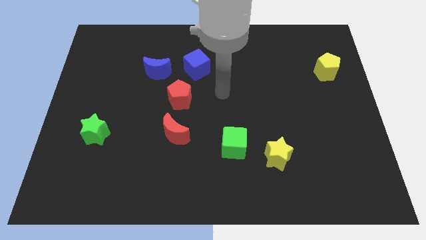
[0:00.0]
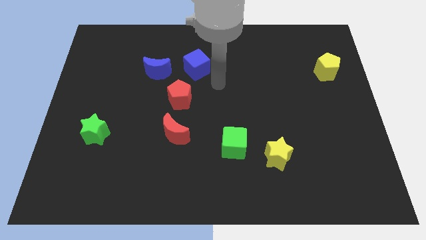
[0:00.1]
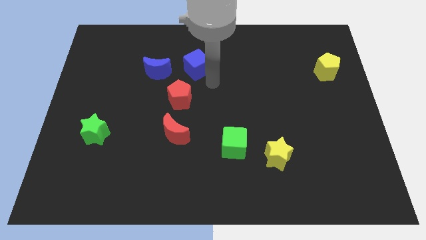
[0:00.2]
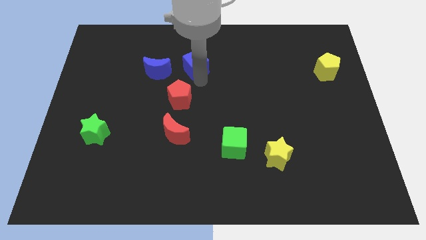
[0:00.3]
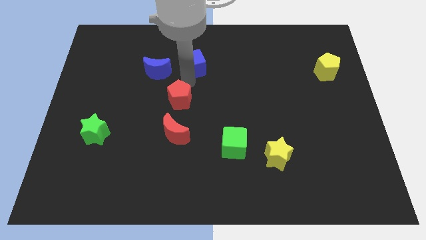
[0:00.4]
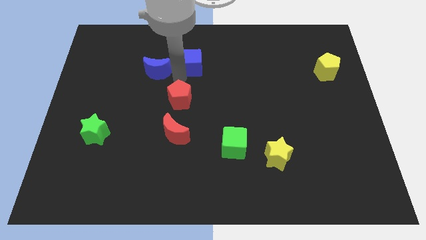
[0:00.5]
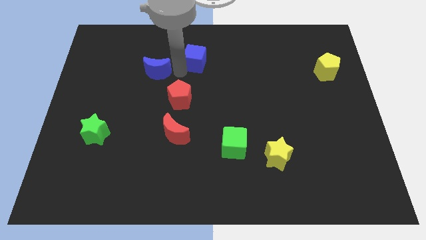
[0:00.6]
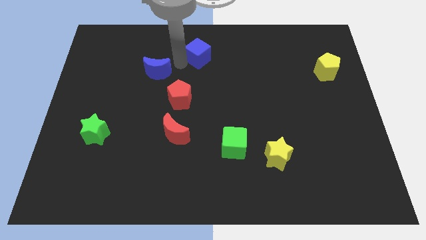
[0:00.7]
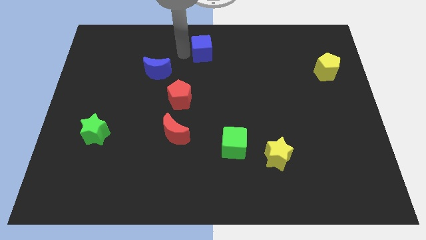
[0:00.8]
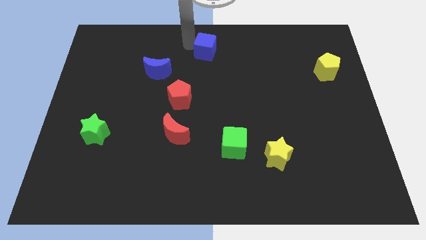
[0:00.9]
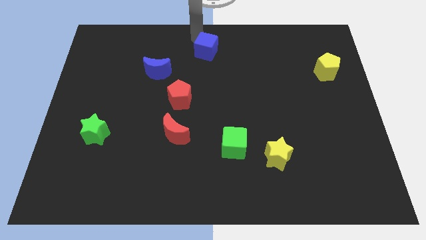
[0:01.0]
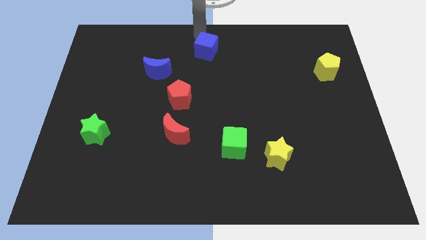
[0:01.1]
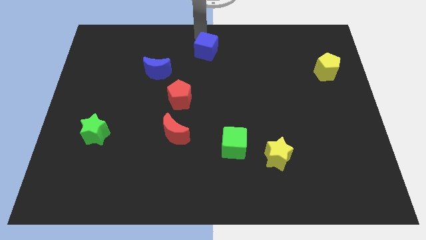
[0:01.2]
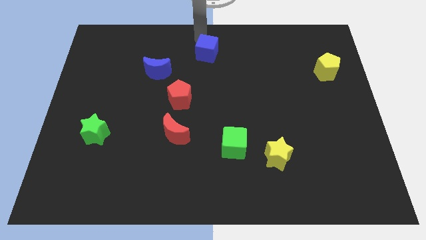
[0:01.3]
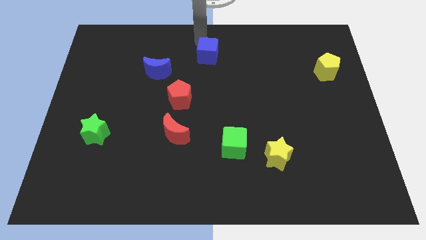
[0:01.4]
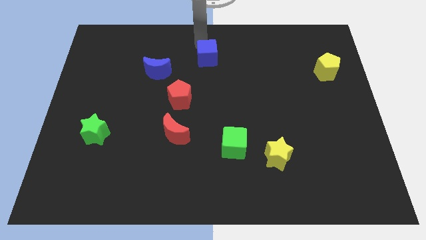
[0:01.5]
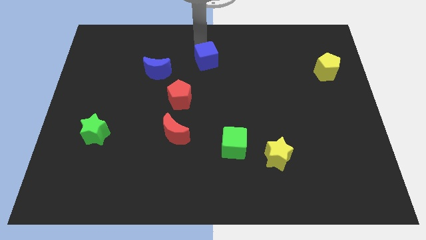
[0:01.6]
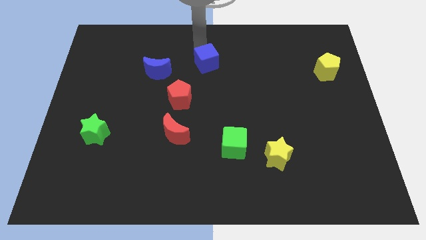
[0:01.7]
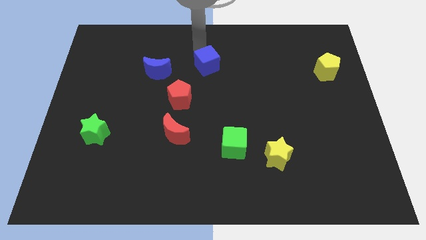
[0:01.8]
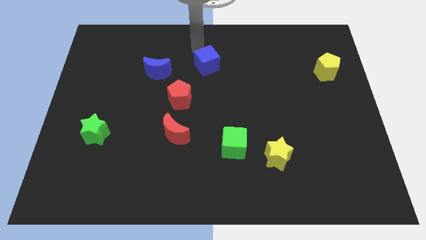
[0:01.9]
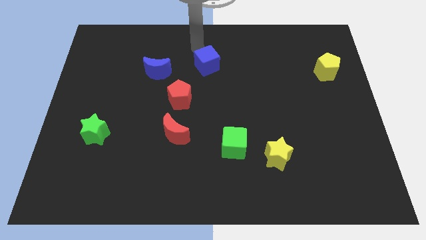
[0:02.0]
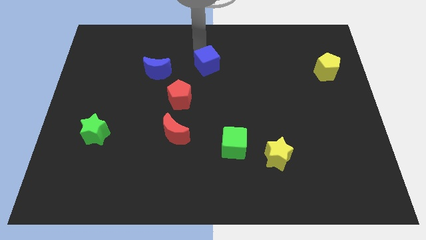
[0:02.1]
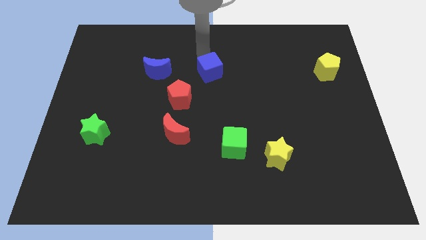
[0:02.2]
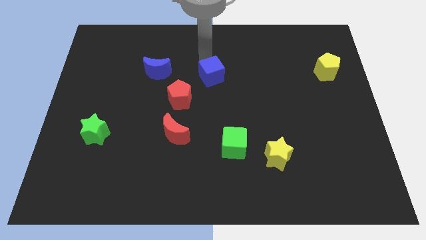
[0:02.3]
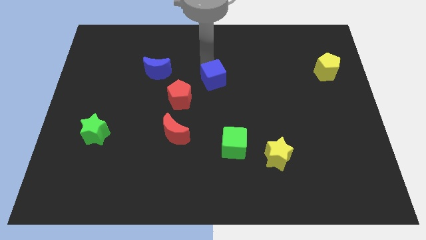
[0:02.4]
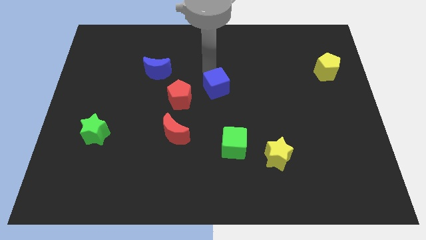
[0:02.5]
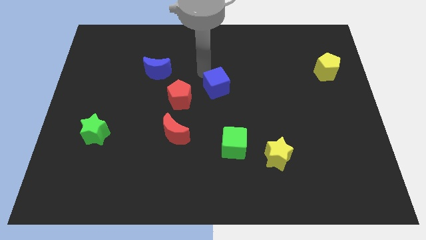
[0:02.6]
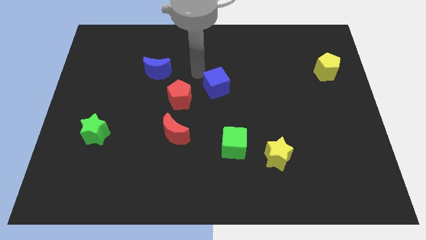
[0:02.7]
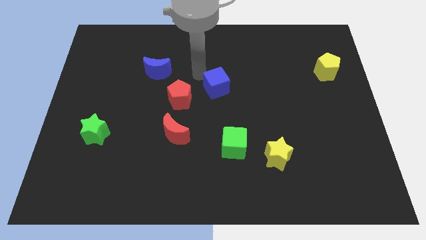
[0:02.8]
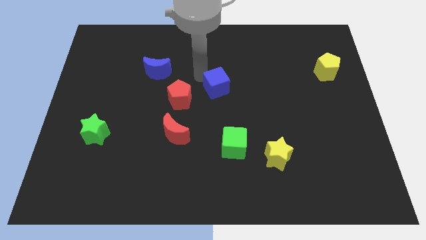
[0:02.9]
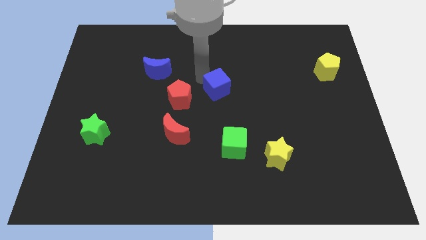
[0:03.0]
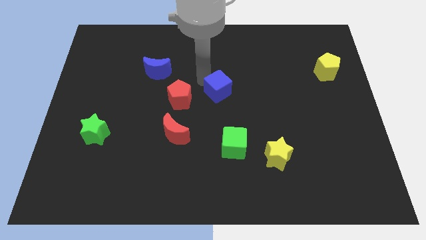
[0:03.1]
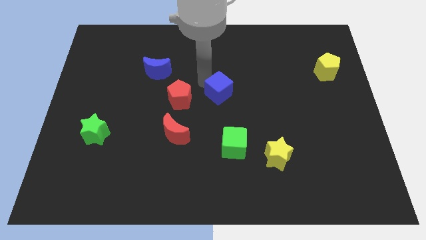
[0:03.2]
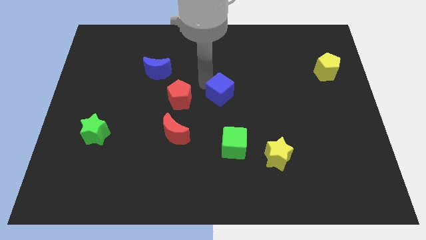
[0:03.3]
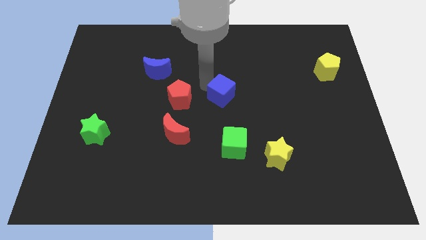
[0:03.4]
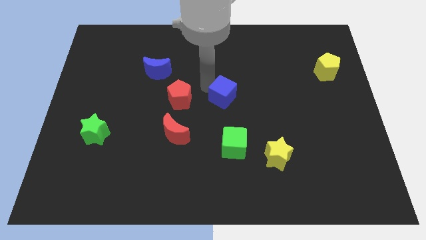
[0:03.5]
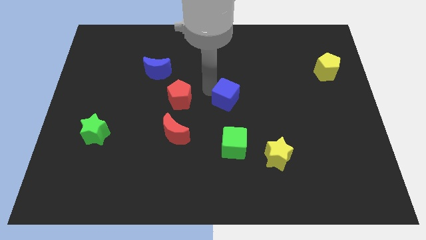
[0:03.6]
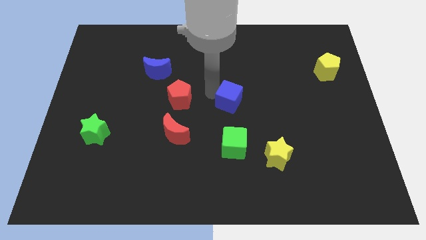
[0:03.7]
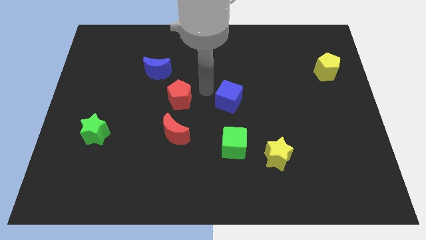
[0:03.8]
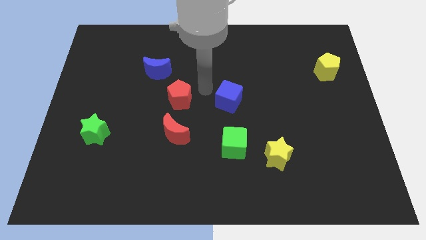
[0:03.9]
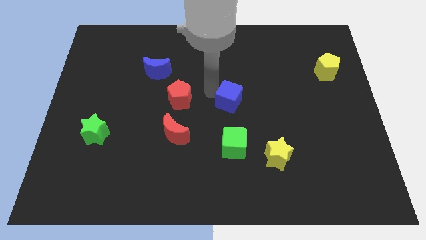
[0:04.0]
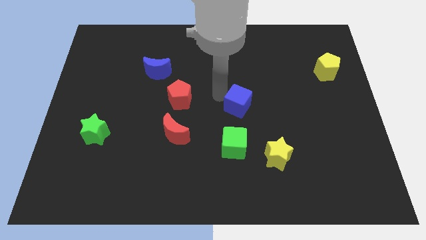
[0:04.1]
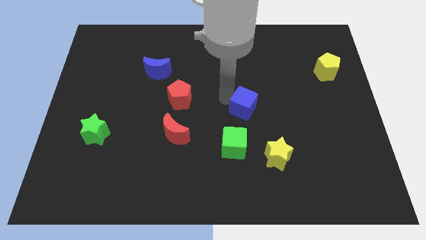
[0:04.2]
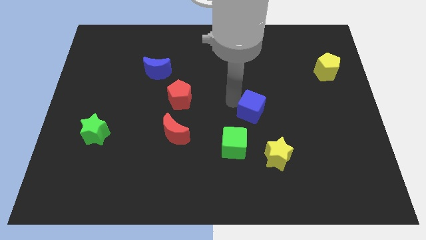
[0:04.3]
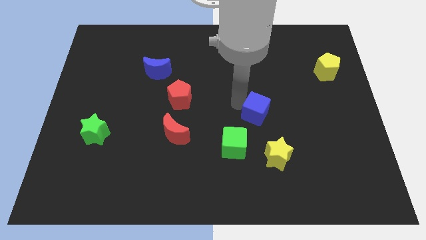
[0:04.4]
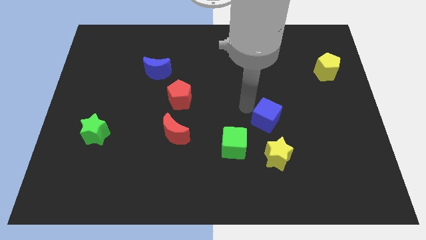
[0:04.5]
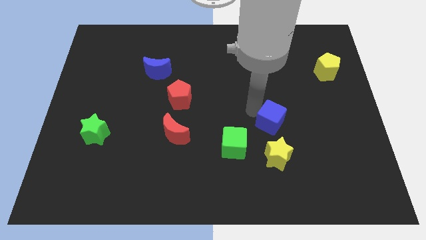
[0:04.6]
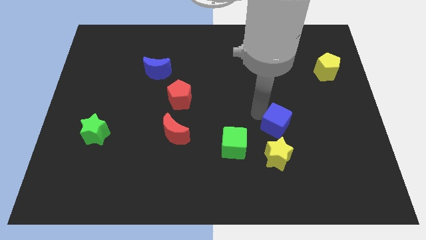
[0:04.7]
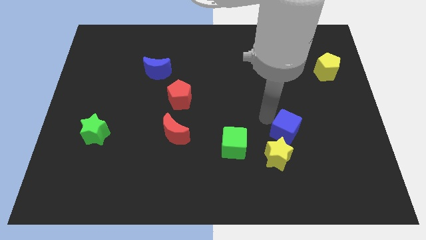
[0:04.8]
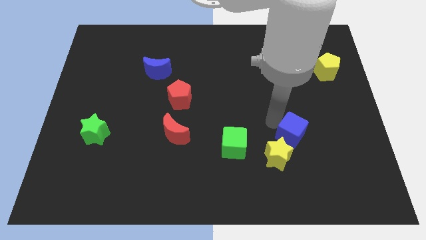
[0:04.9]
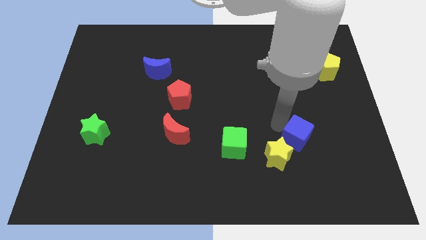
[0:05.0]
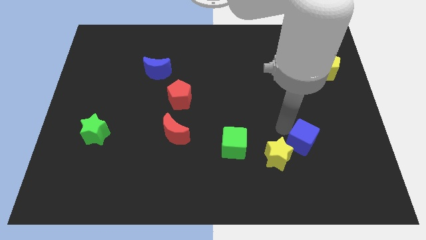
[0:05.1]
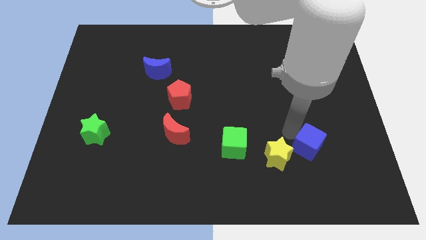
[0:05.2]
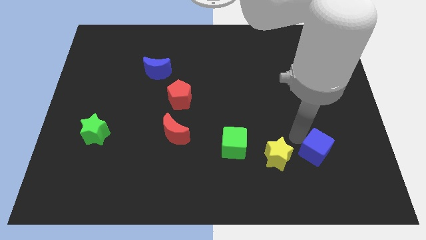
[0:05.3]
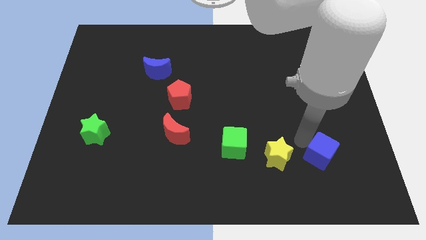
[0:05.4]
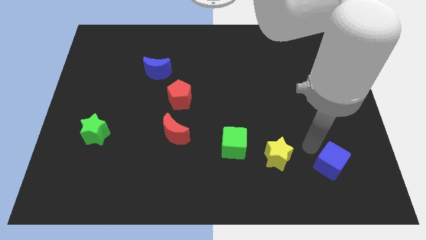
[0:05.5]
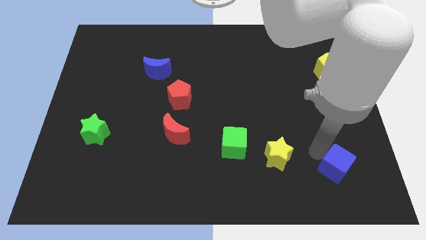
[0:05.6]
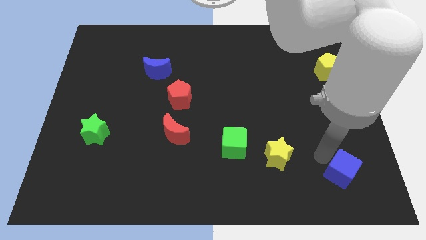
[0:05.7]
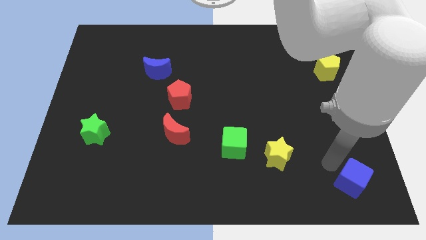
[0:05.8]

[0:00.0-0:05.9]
move the blue cube to the bottom right corner
